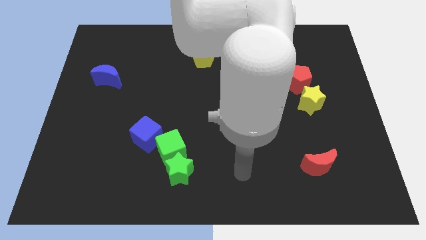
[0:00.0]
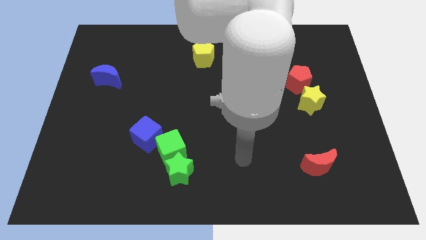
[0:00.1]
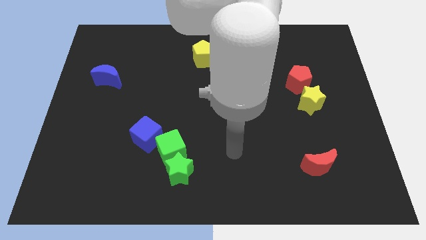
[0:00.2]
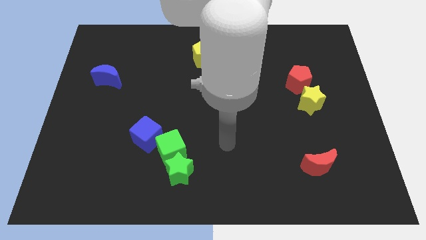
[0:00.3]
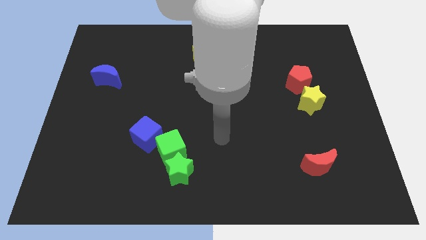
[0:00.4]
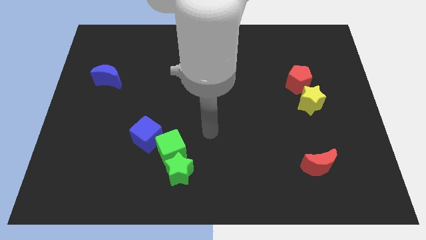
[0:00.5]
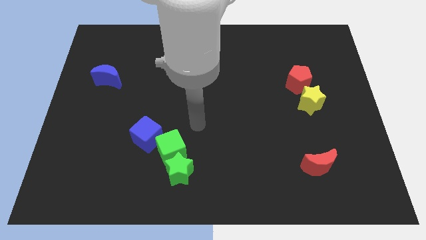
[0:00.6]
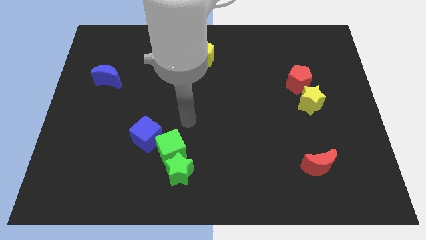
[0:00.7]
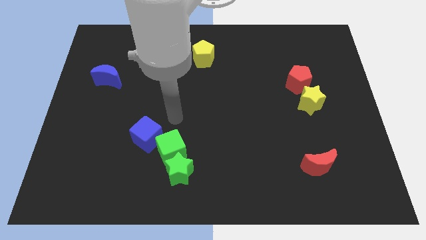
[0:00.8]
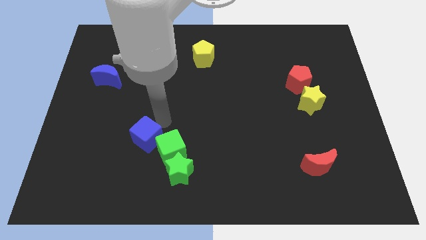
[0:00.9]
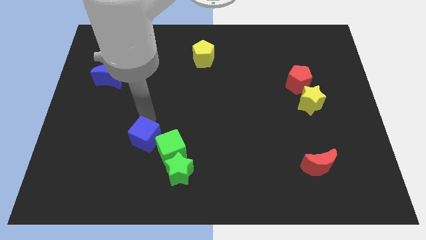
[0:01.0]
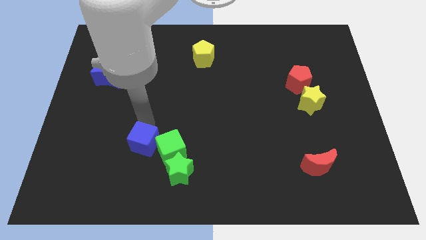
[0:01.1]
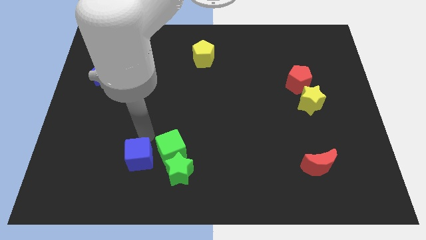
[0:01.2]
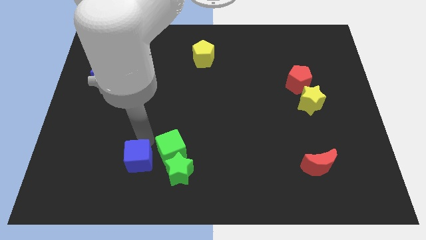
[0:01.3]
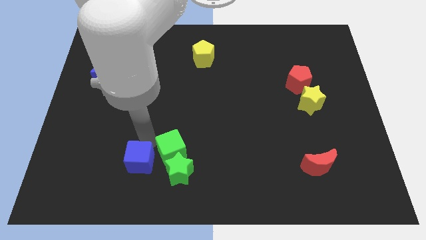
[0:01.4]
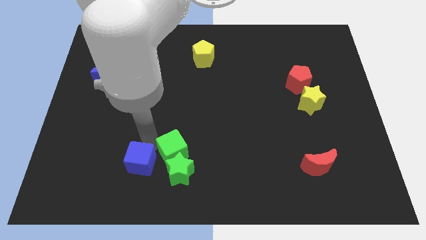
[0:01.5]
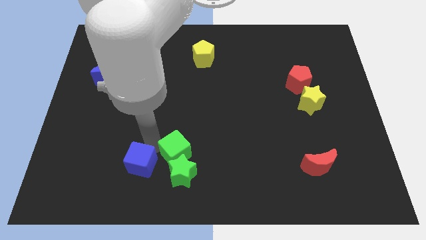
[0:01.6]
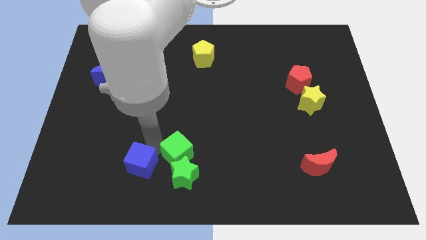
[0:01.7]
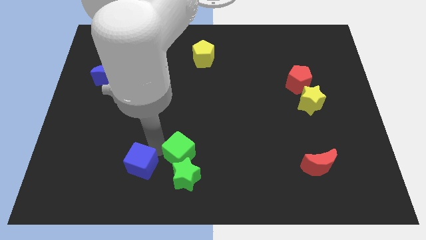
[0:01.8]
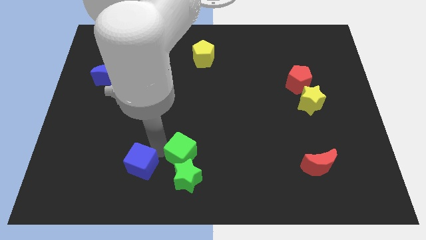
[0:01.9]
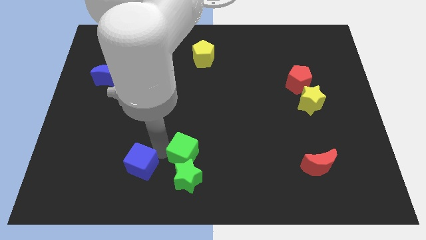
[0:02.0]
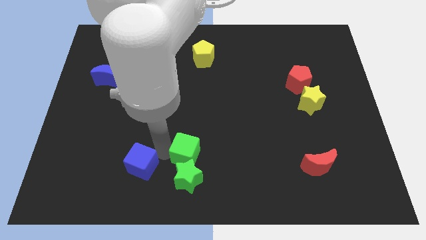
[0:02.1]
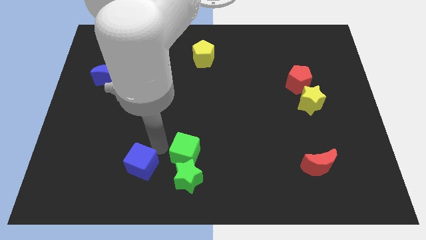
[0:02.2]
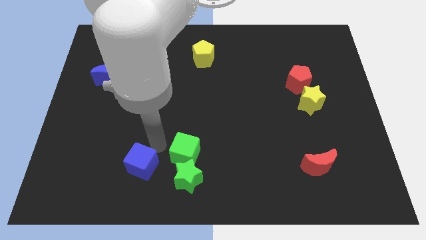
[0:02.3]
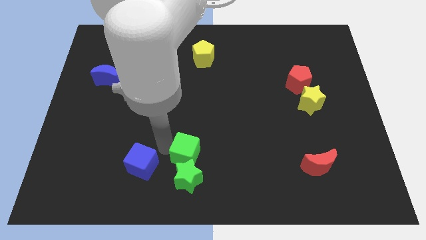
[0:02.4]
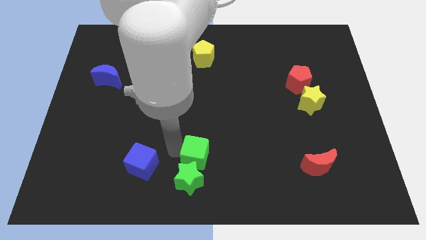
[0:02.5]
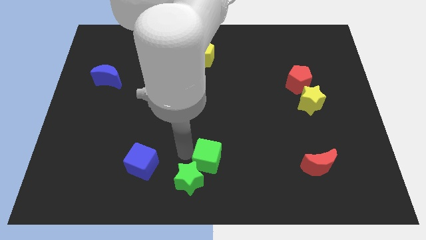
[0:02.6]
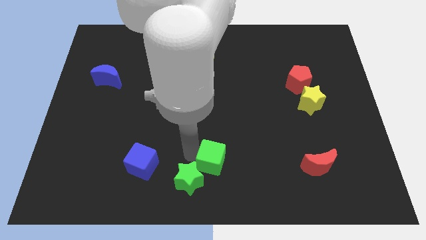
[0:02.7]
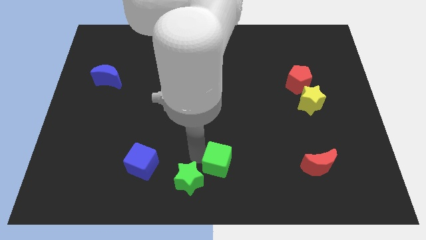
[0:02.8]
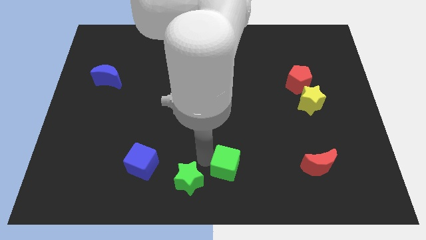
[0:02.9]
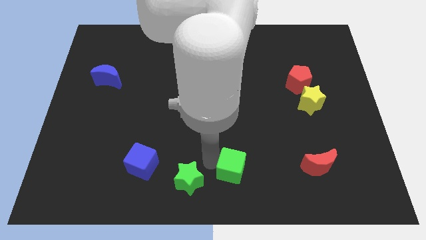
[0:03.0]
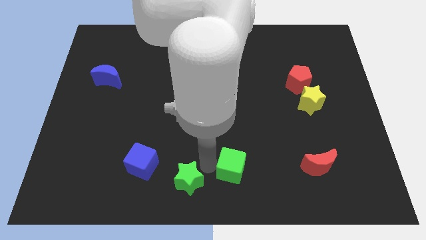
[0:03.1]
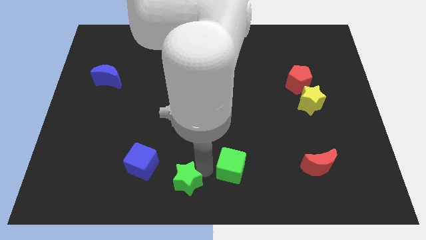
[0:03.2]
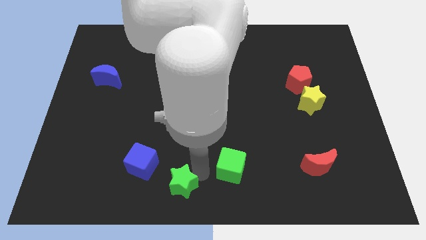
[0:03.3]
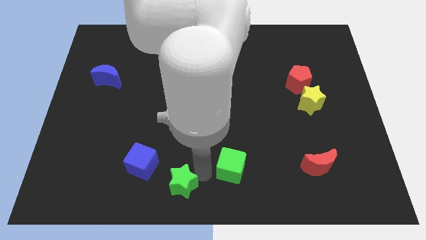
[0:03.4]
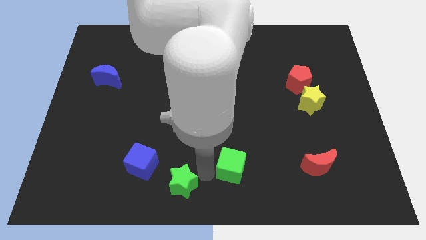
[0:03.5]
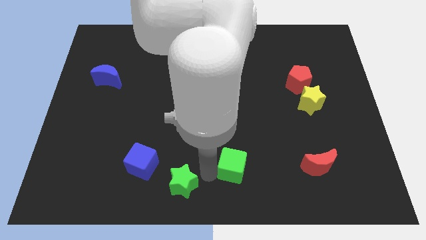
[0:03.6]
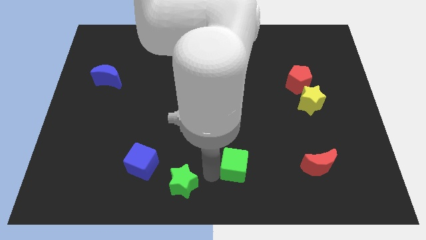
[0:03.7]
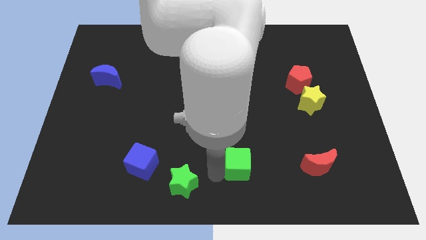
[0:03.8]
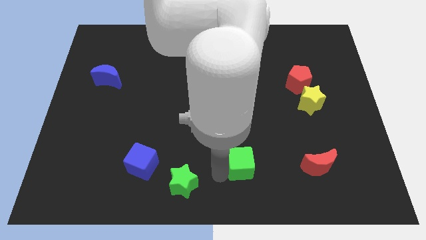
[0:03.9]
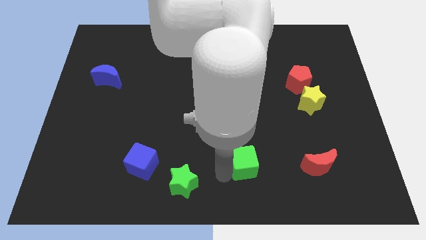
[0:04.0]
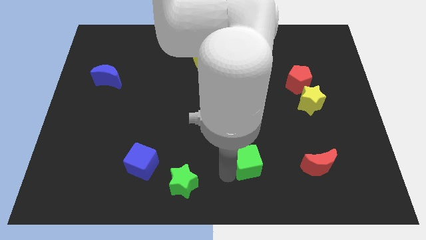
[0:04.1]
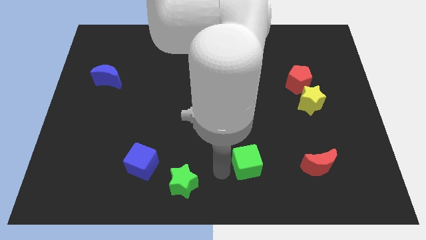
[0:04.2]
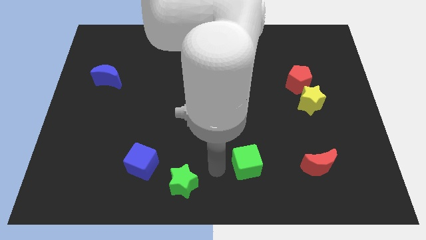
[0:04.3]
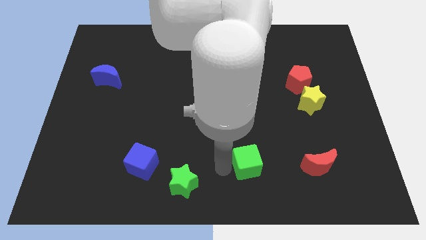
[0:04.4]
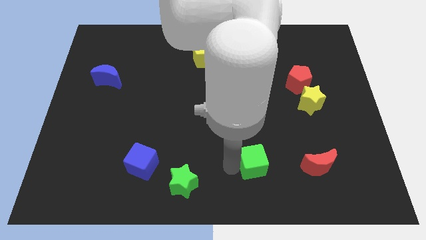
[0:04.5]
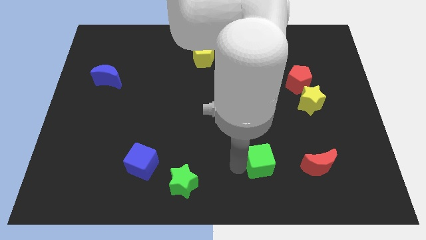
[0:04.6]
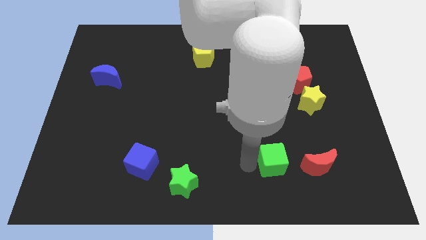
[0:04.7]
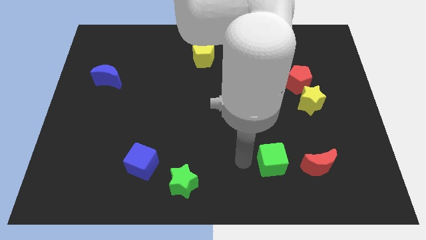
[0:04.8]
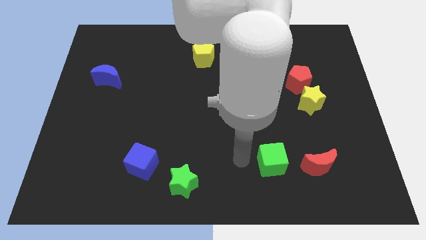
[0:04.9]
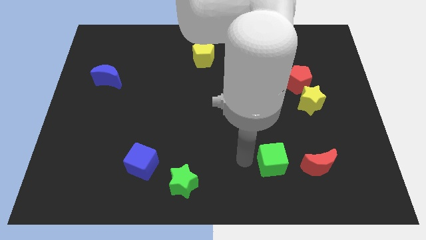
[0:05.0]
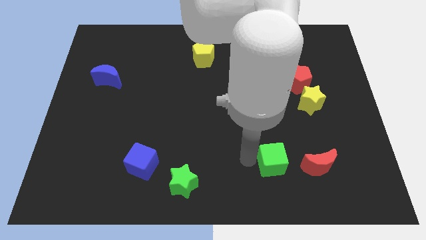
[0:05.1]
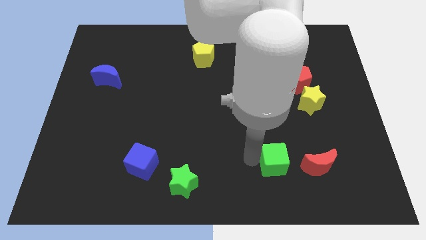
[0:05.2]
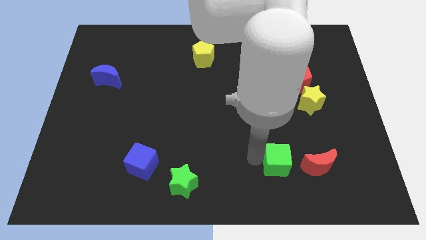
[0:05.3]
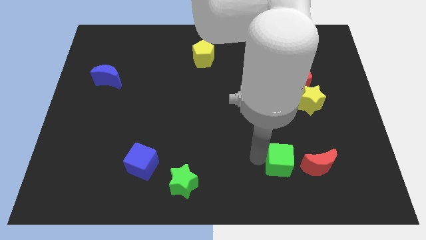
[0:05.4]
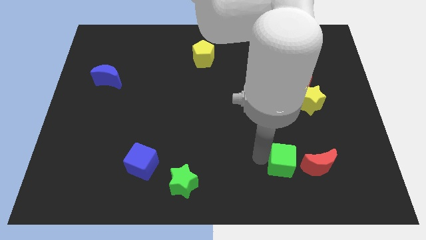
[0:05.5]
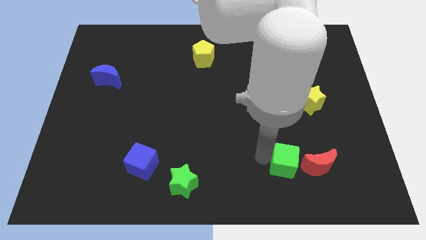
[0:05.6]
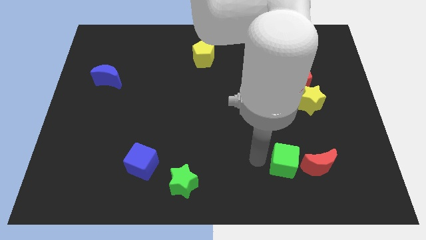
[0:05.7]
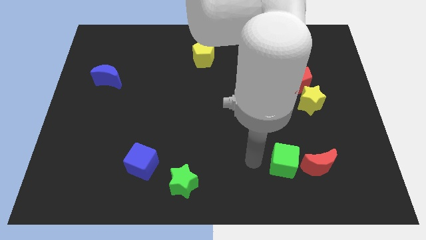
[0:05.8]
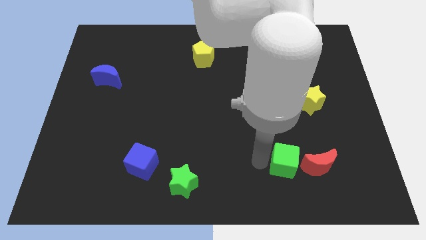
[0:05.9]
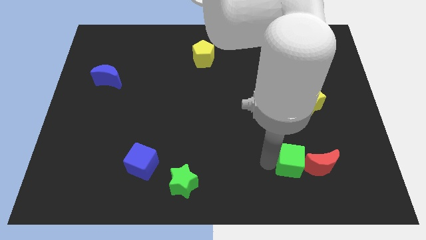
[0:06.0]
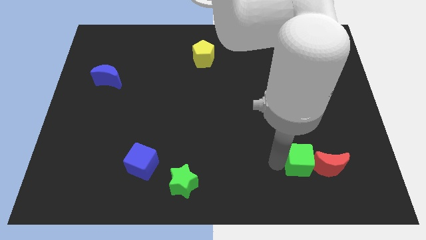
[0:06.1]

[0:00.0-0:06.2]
move the green cube to the red moon

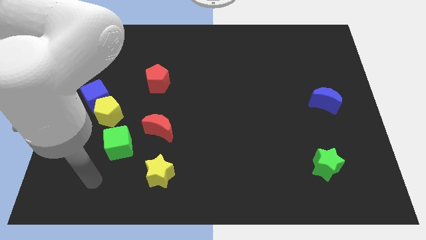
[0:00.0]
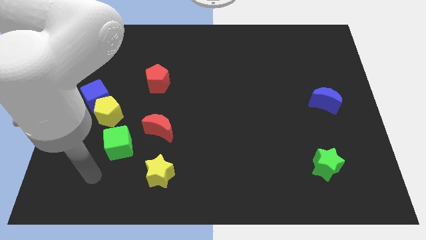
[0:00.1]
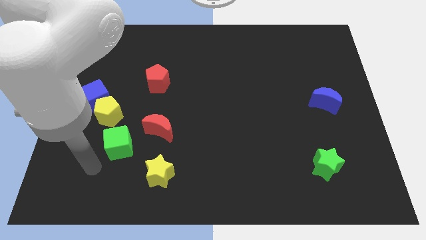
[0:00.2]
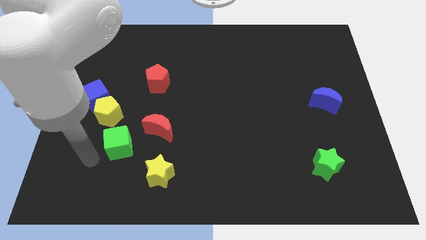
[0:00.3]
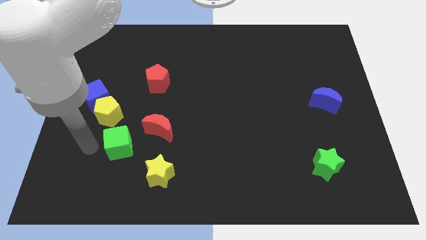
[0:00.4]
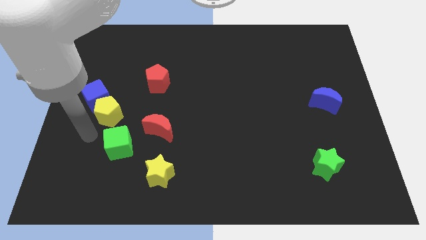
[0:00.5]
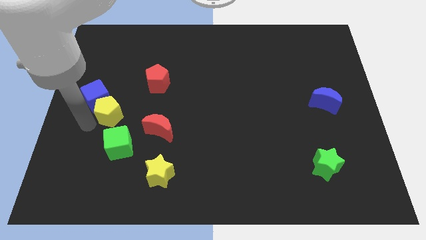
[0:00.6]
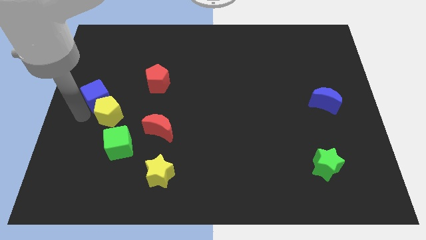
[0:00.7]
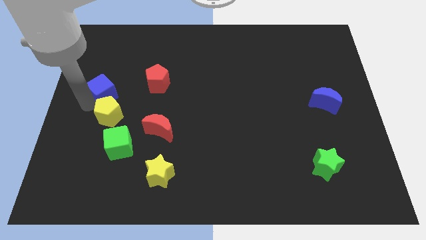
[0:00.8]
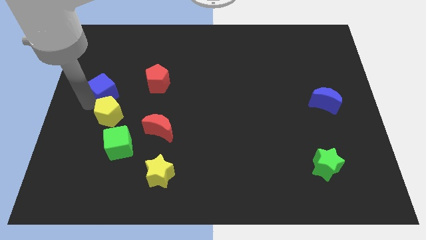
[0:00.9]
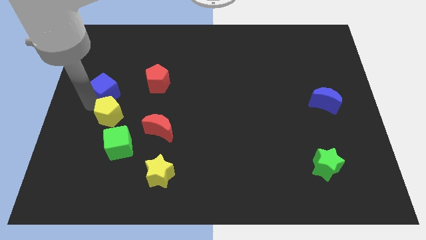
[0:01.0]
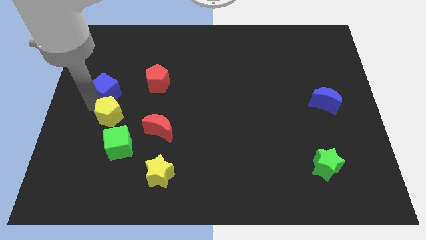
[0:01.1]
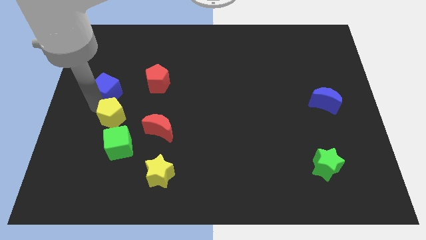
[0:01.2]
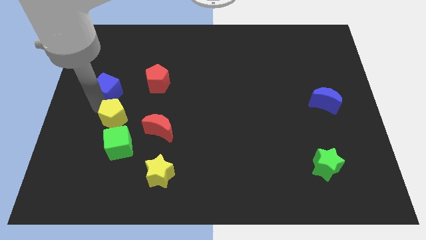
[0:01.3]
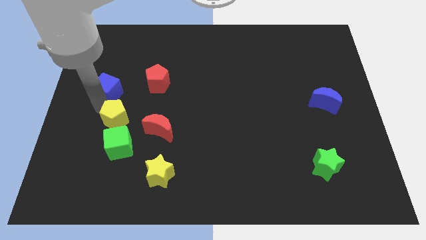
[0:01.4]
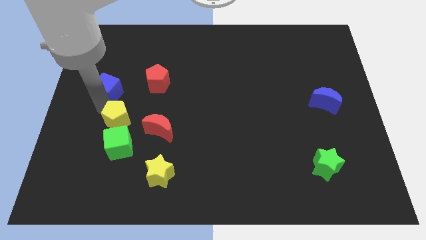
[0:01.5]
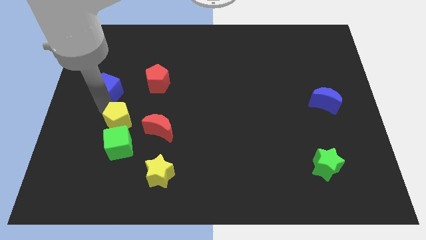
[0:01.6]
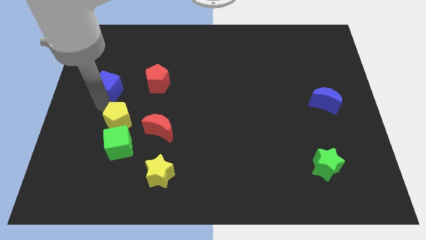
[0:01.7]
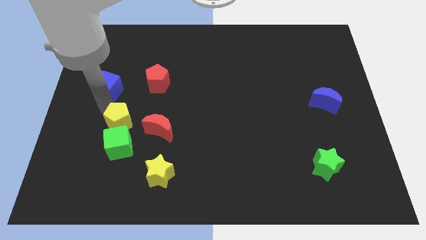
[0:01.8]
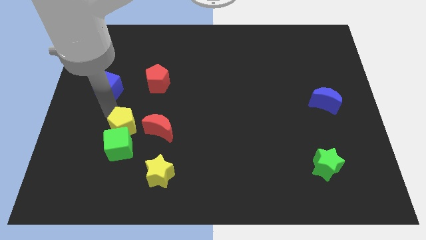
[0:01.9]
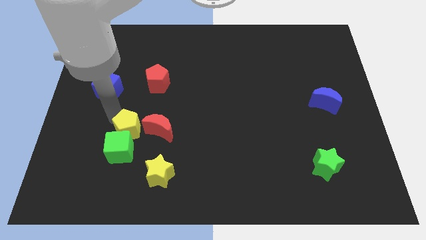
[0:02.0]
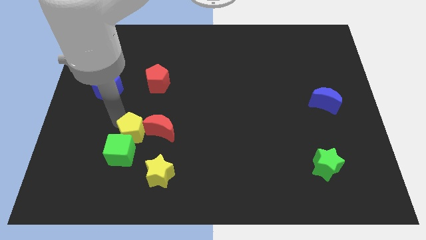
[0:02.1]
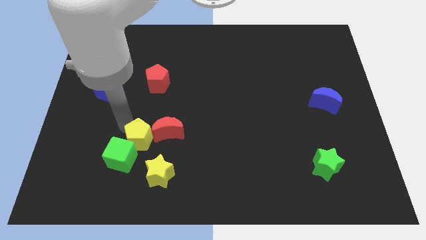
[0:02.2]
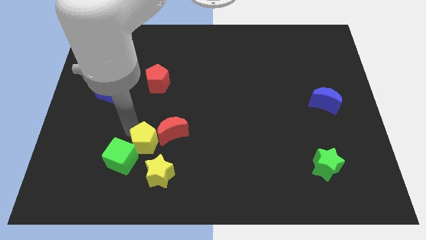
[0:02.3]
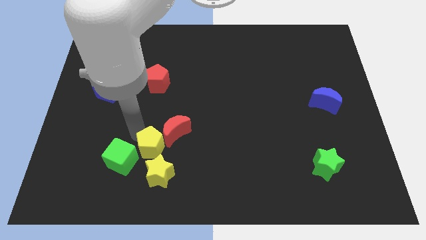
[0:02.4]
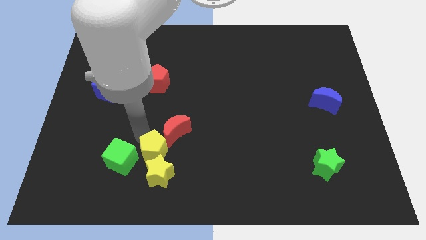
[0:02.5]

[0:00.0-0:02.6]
slide the yellow pentagon next to the yellow star
